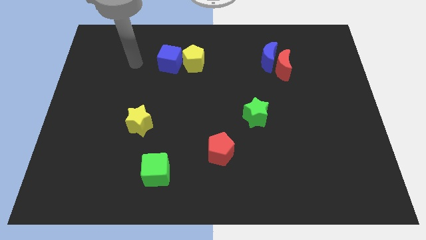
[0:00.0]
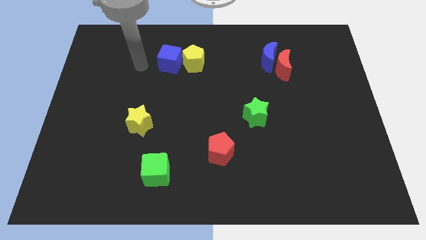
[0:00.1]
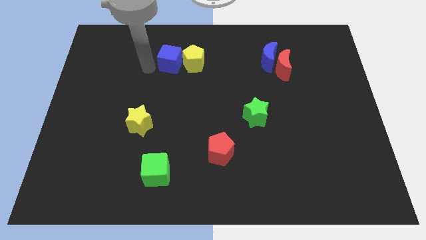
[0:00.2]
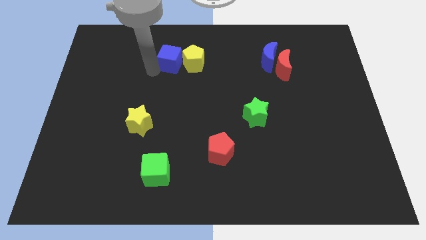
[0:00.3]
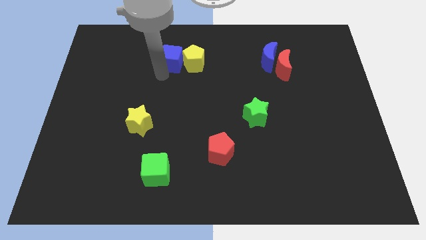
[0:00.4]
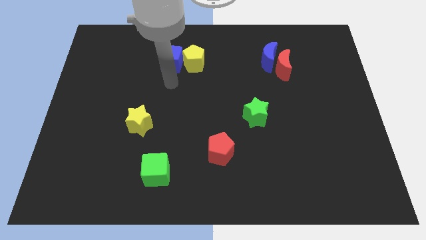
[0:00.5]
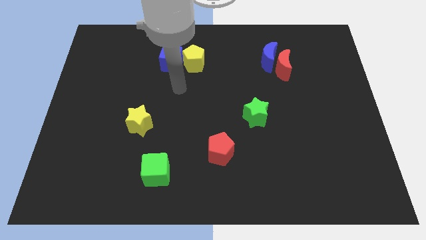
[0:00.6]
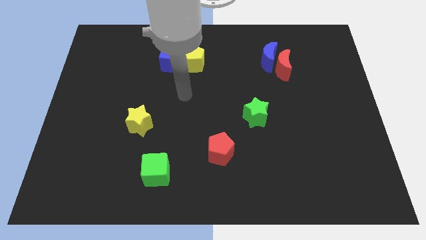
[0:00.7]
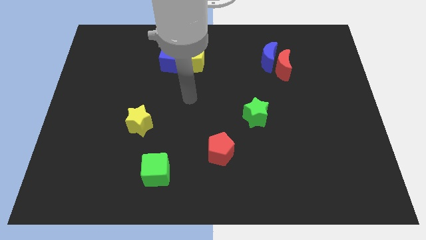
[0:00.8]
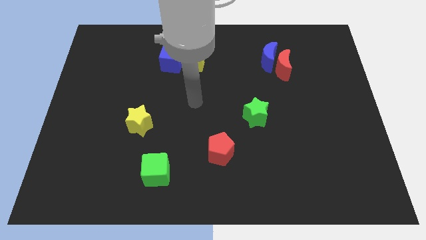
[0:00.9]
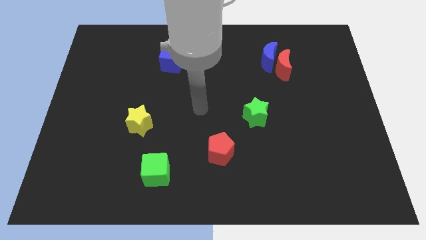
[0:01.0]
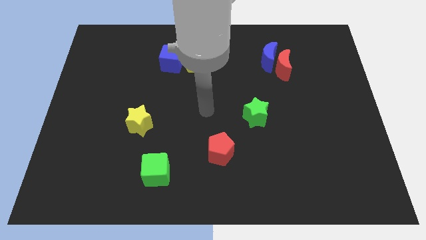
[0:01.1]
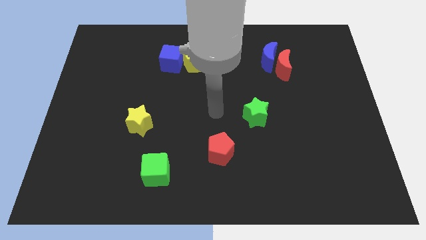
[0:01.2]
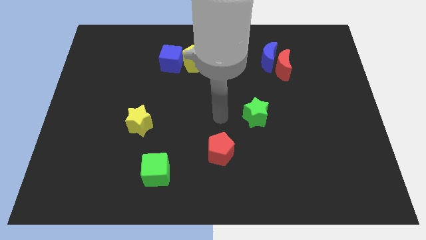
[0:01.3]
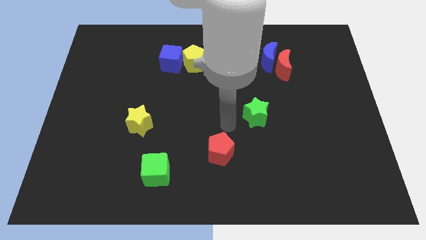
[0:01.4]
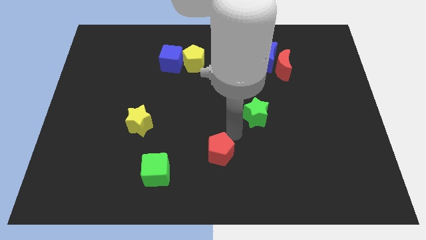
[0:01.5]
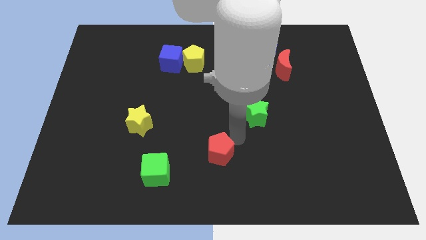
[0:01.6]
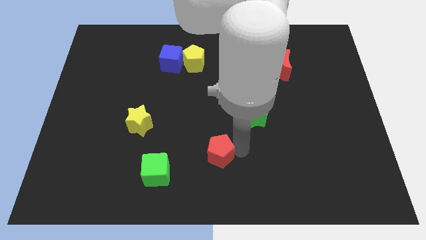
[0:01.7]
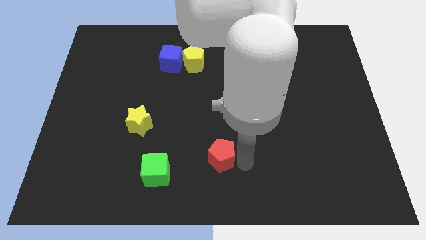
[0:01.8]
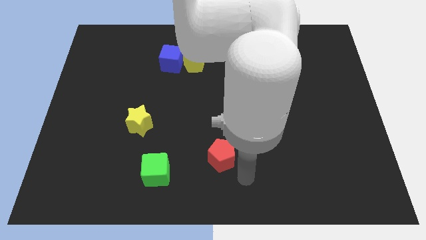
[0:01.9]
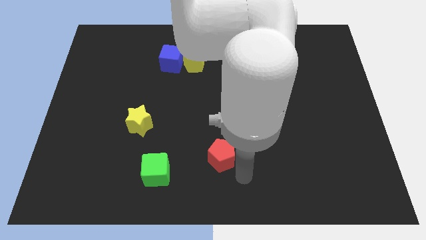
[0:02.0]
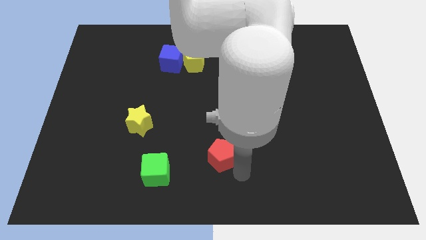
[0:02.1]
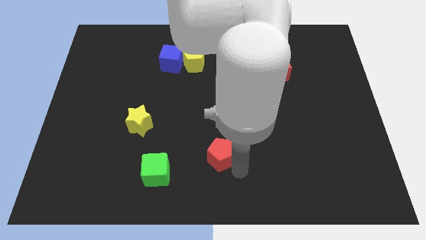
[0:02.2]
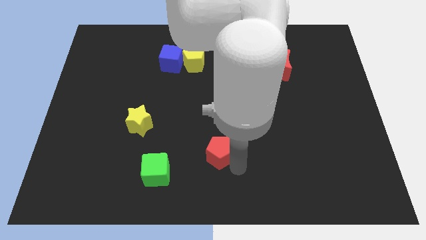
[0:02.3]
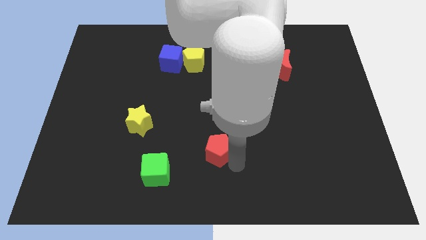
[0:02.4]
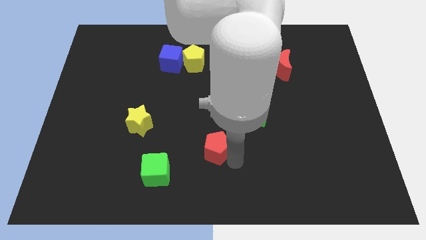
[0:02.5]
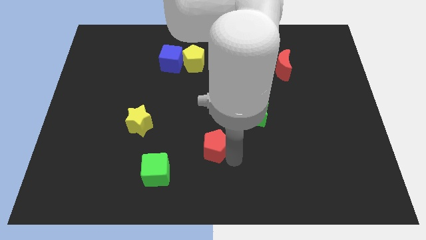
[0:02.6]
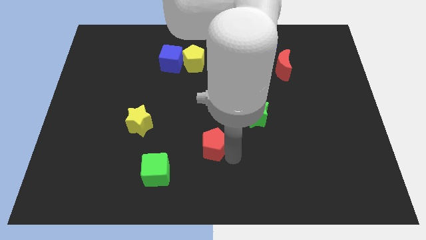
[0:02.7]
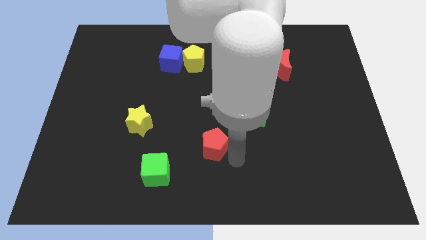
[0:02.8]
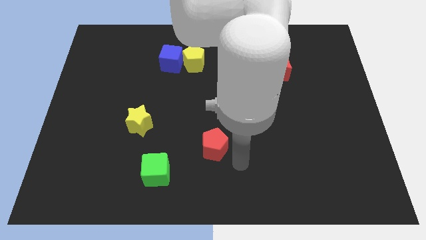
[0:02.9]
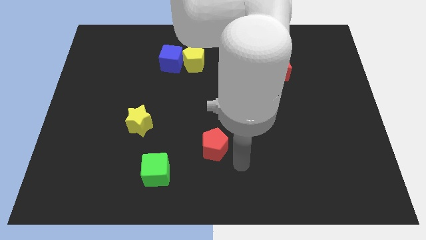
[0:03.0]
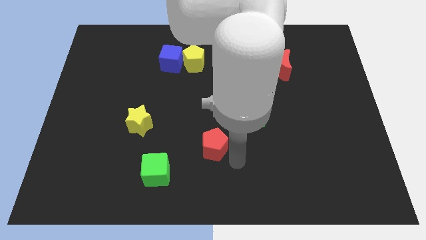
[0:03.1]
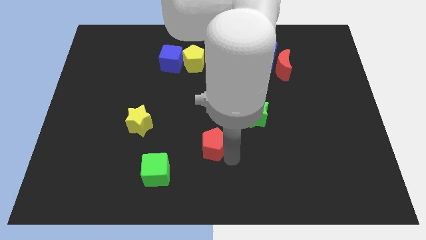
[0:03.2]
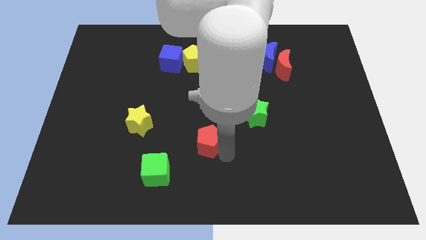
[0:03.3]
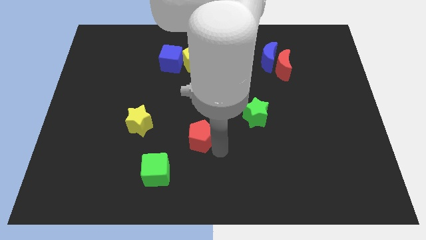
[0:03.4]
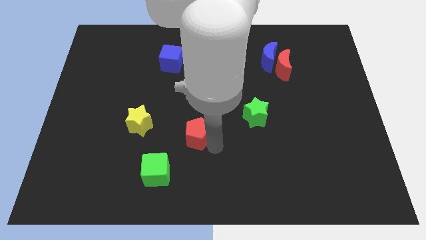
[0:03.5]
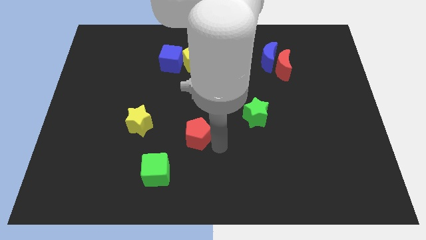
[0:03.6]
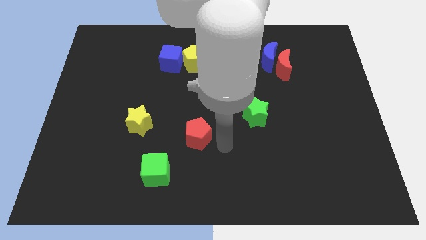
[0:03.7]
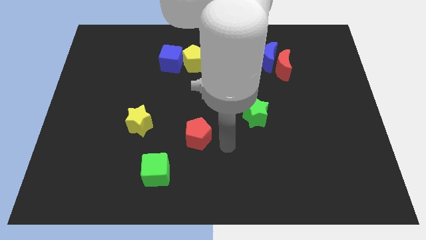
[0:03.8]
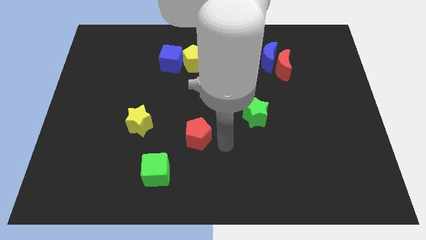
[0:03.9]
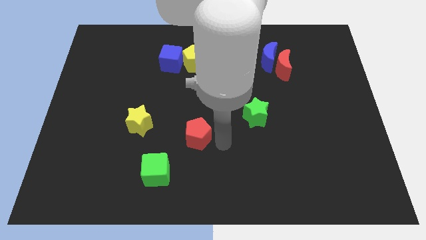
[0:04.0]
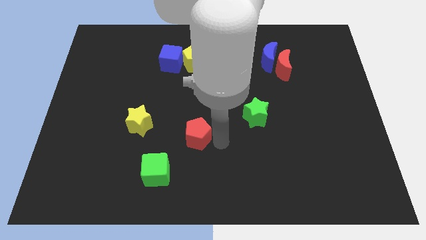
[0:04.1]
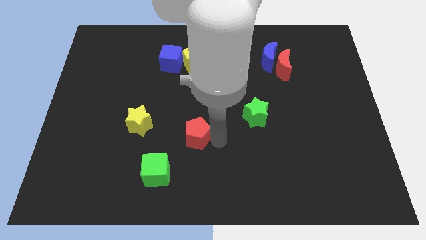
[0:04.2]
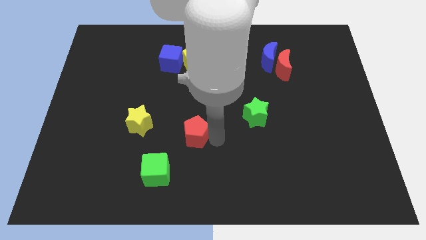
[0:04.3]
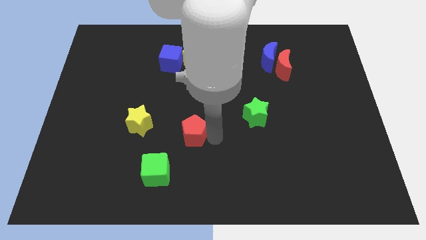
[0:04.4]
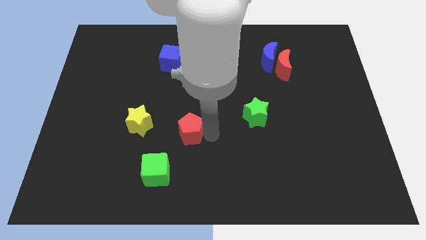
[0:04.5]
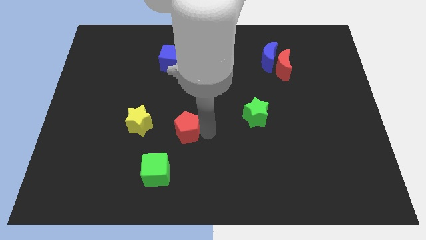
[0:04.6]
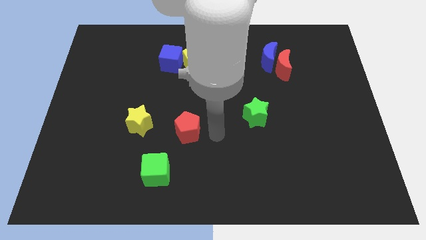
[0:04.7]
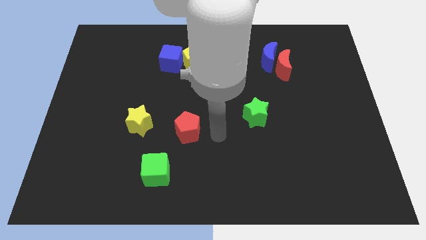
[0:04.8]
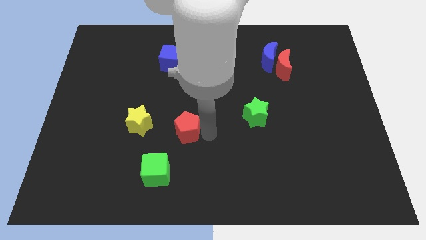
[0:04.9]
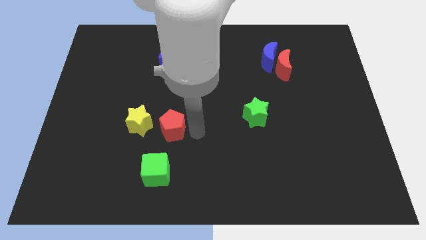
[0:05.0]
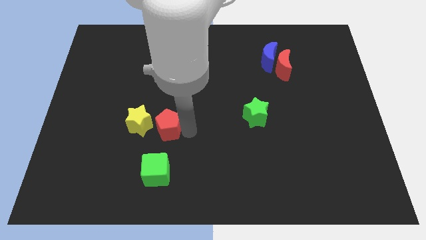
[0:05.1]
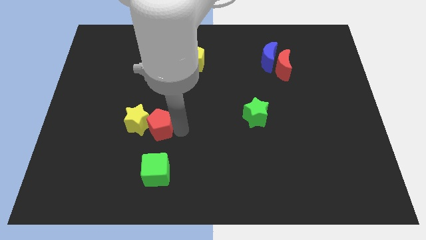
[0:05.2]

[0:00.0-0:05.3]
push the red pentagon to the yellow star

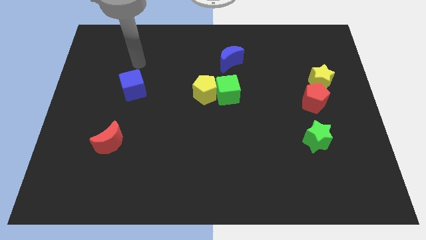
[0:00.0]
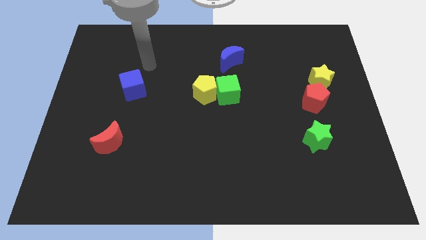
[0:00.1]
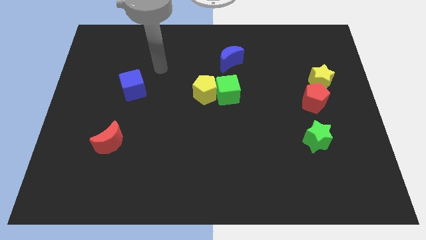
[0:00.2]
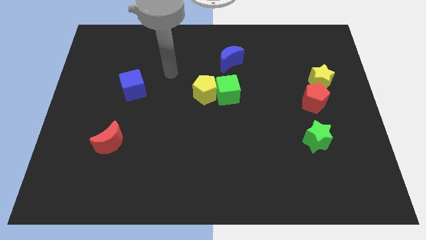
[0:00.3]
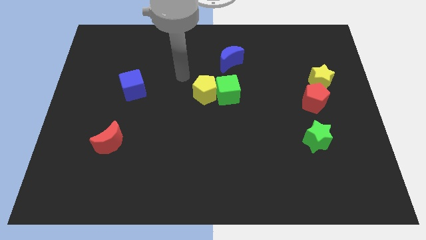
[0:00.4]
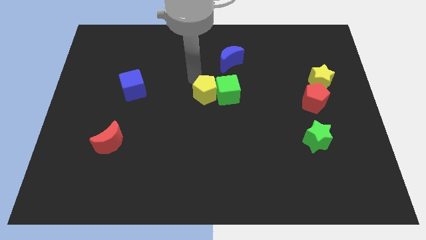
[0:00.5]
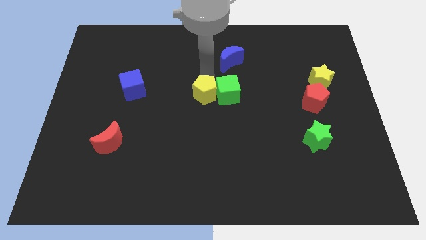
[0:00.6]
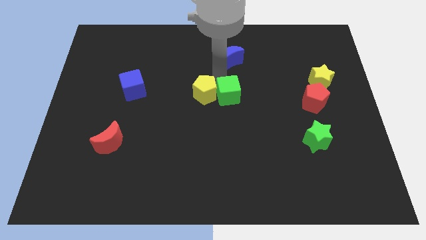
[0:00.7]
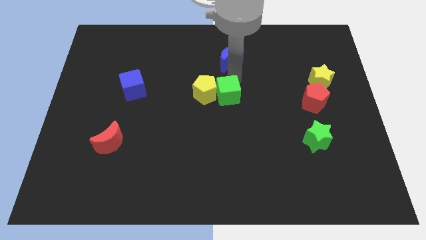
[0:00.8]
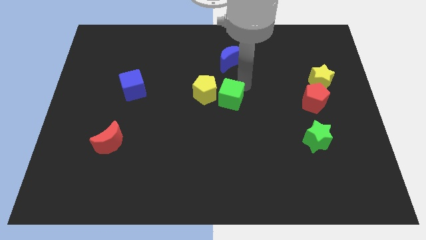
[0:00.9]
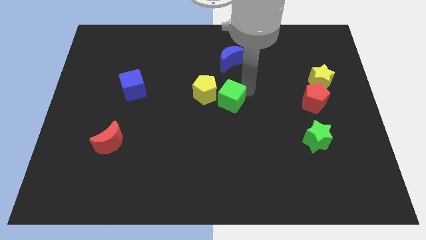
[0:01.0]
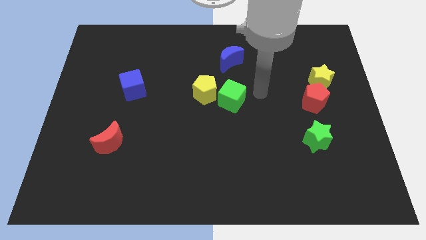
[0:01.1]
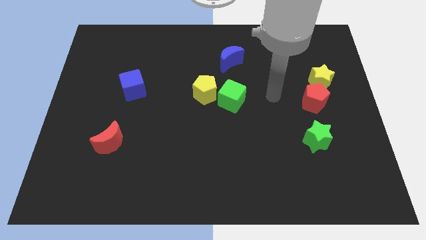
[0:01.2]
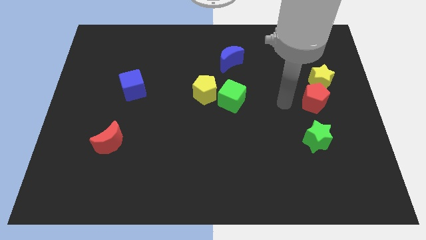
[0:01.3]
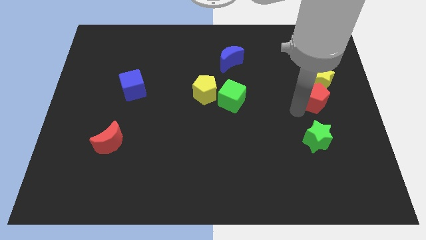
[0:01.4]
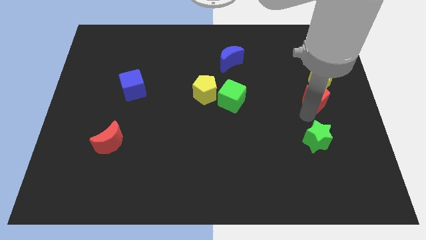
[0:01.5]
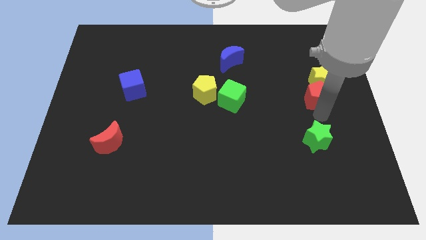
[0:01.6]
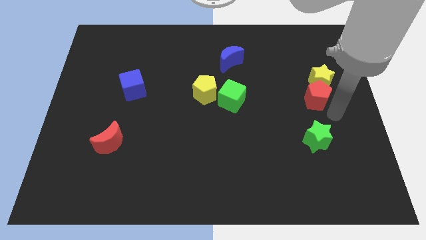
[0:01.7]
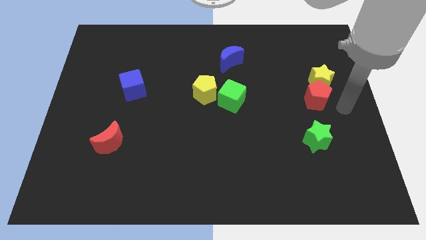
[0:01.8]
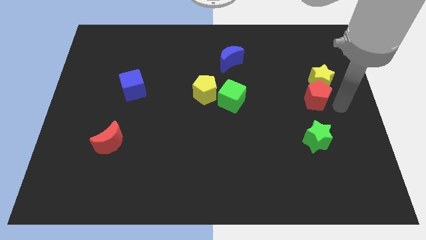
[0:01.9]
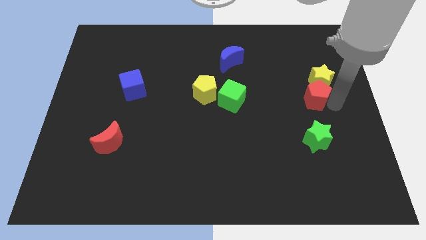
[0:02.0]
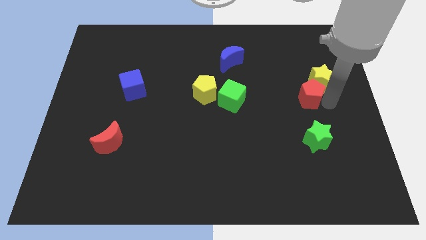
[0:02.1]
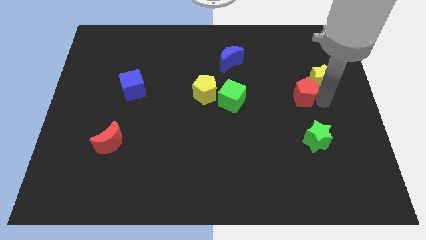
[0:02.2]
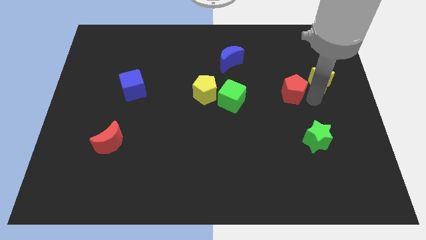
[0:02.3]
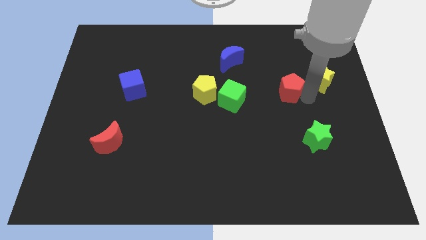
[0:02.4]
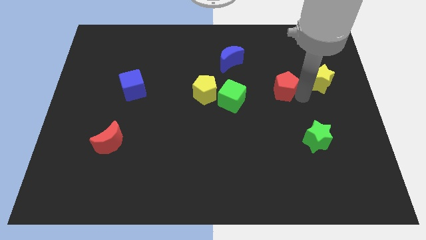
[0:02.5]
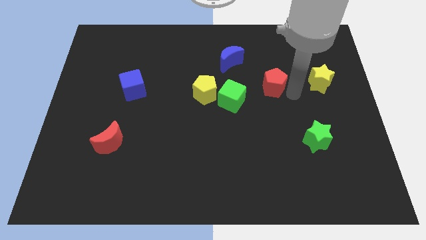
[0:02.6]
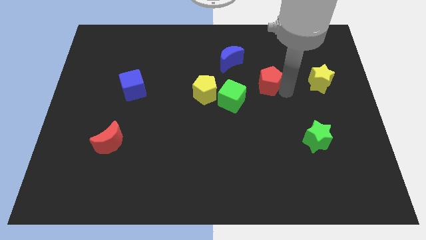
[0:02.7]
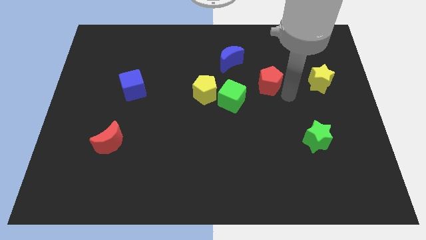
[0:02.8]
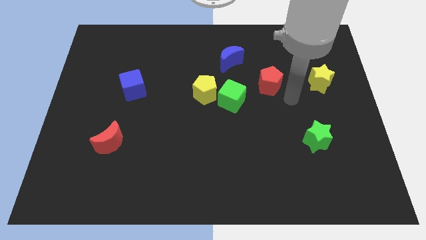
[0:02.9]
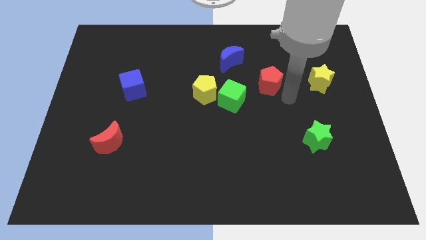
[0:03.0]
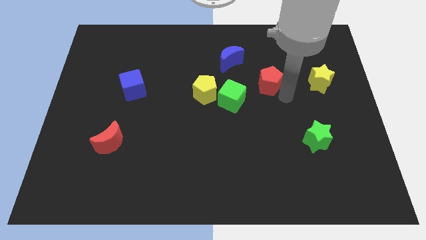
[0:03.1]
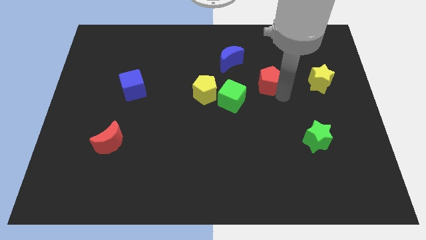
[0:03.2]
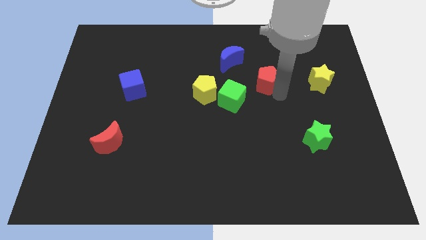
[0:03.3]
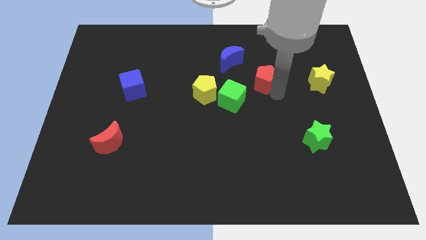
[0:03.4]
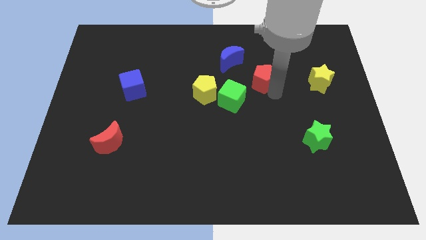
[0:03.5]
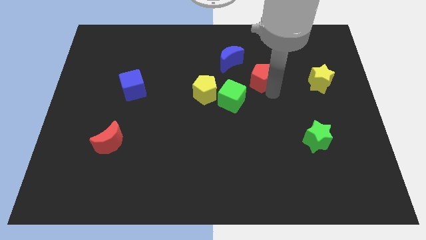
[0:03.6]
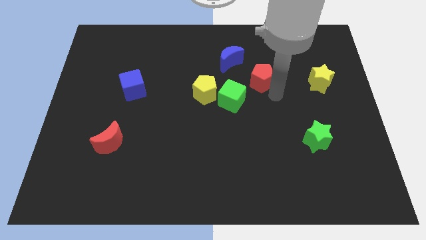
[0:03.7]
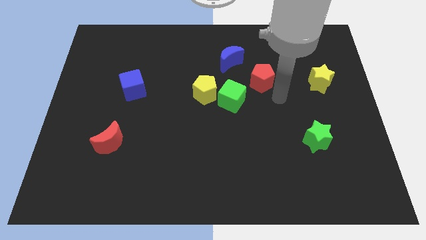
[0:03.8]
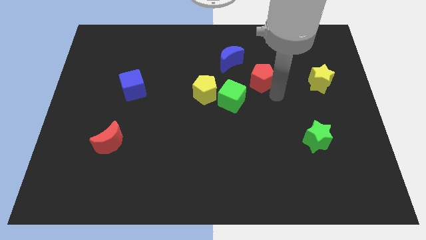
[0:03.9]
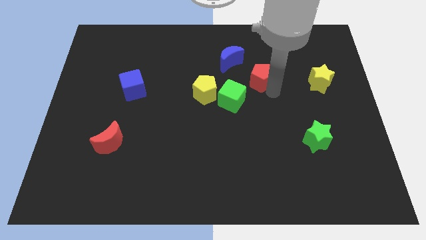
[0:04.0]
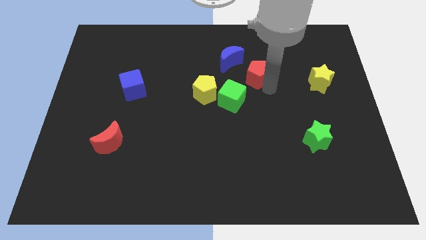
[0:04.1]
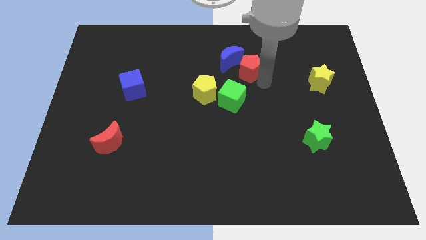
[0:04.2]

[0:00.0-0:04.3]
push the red pentagon next to the blue moon
